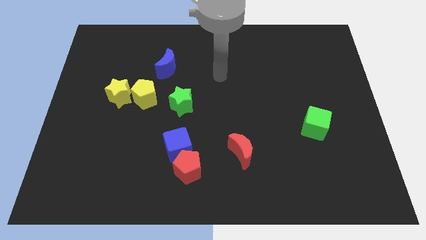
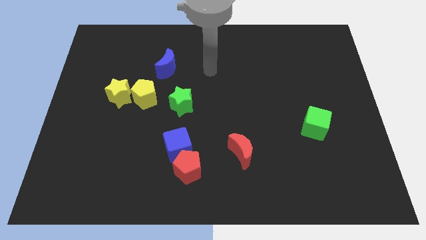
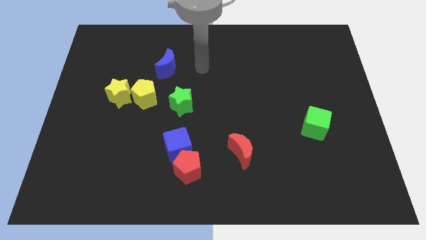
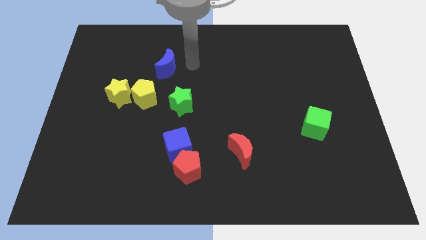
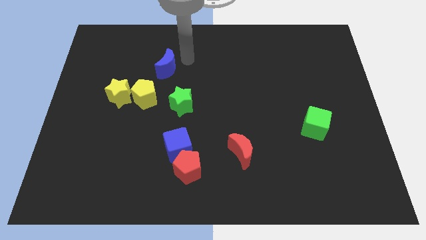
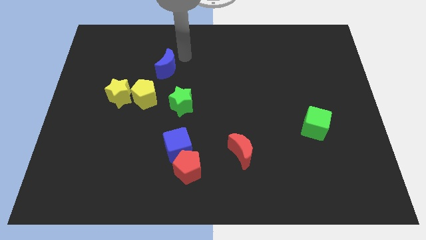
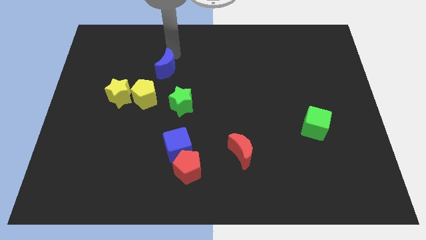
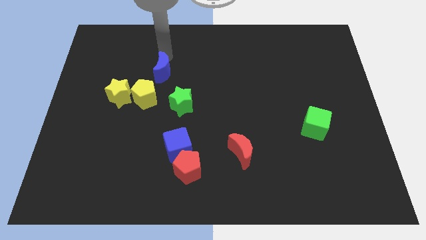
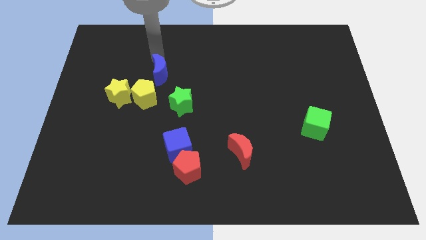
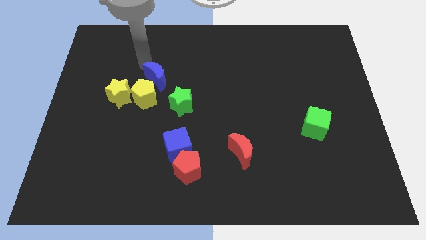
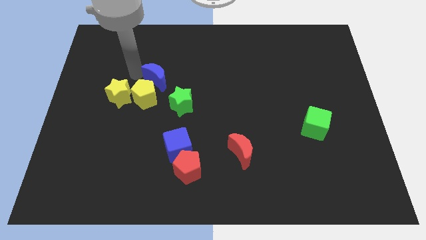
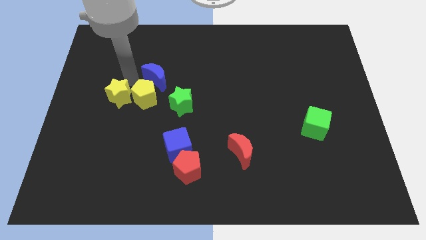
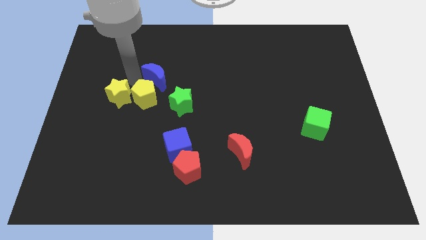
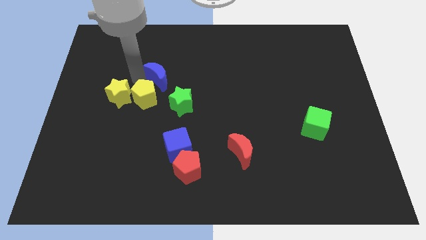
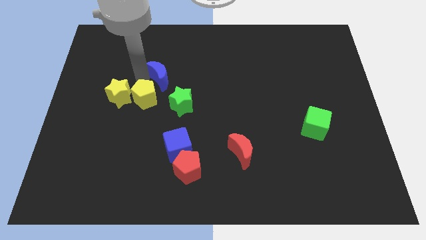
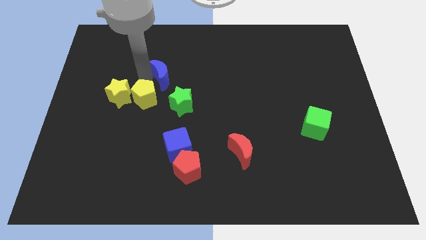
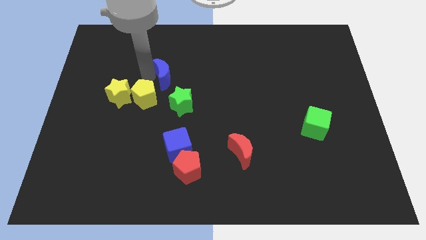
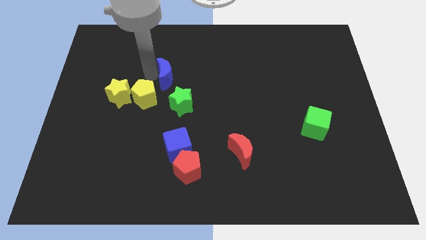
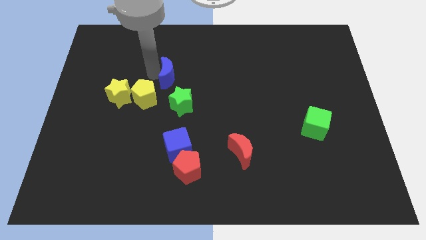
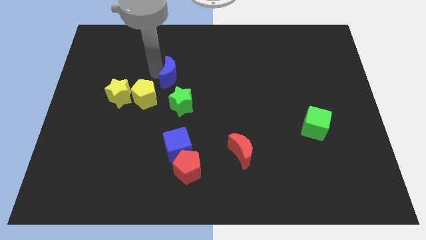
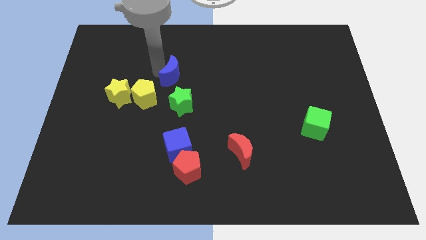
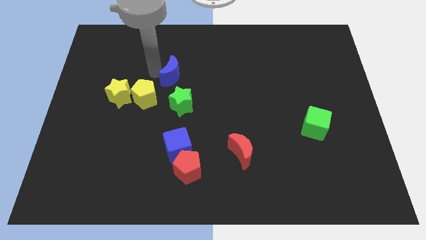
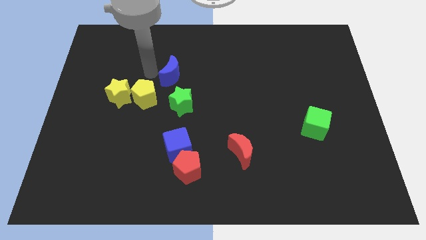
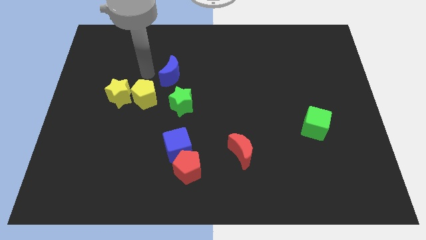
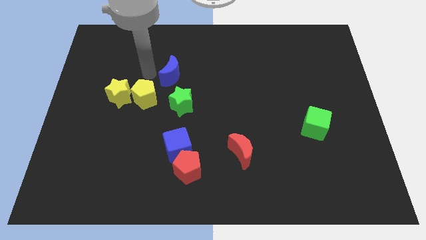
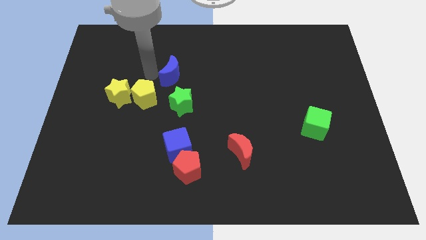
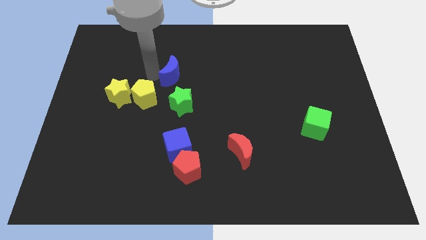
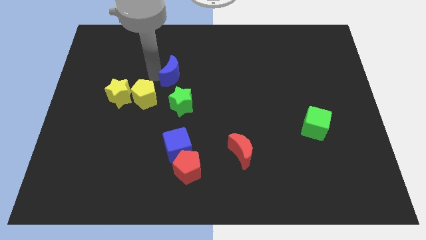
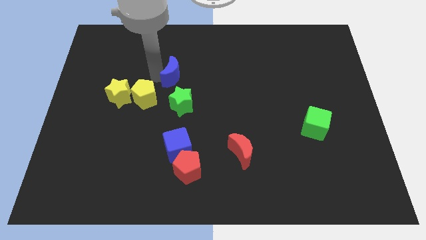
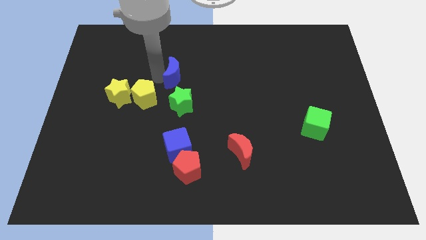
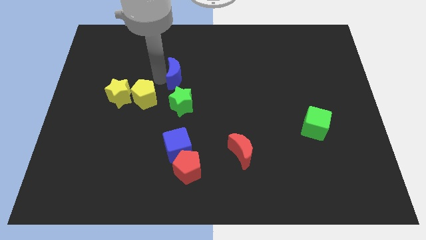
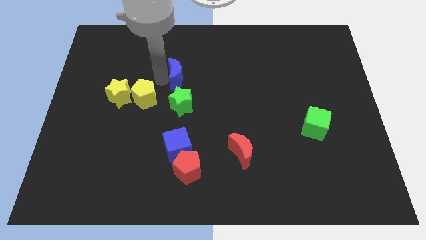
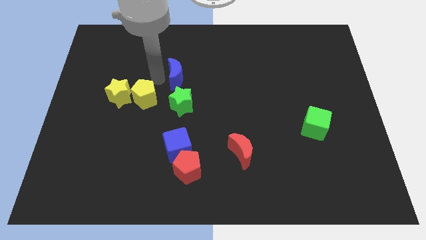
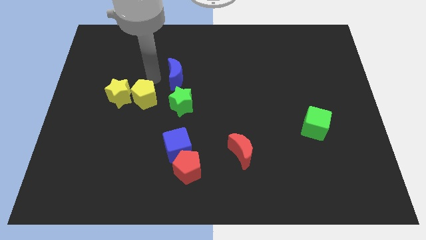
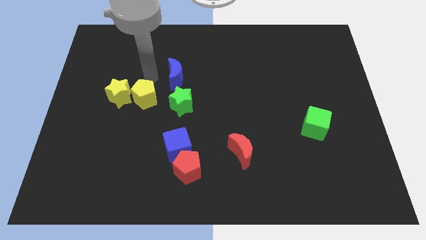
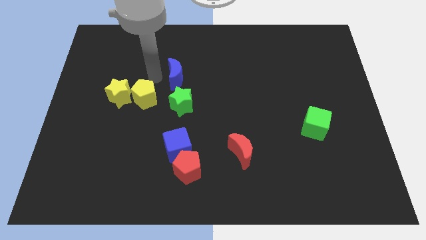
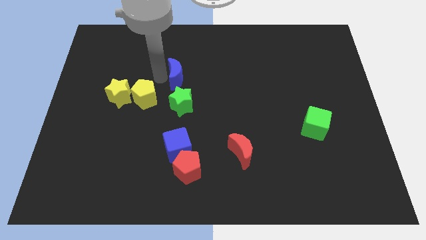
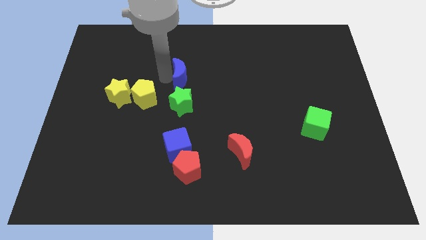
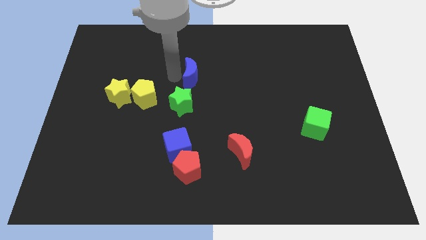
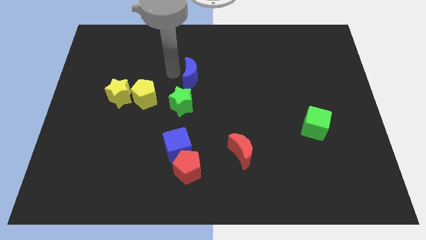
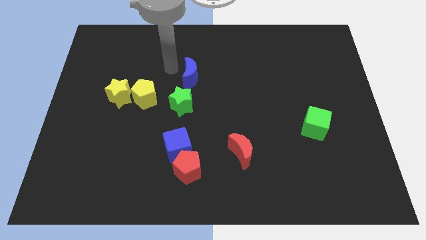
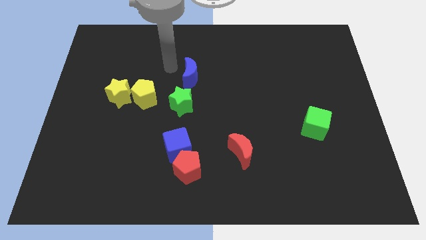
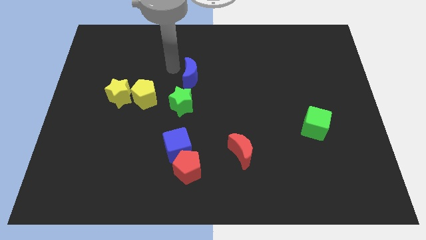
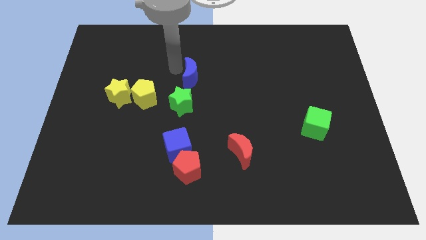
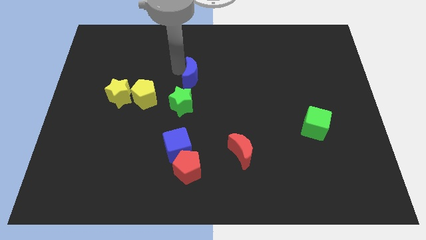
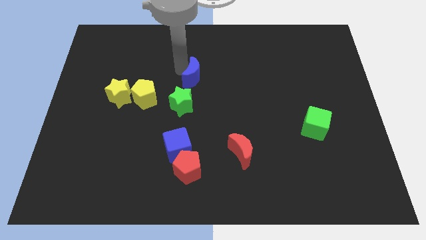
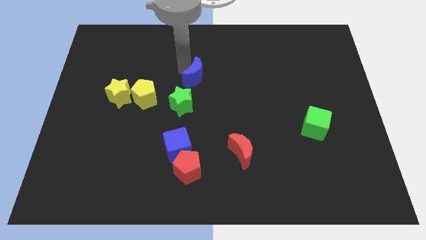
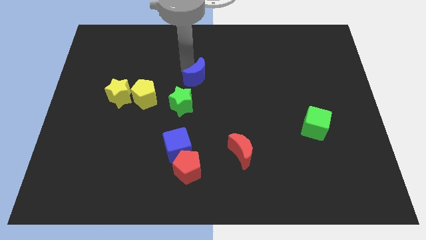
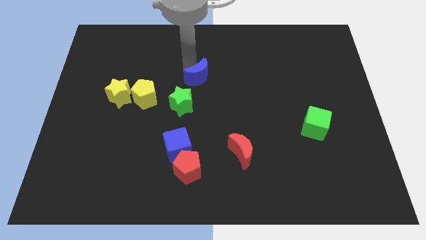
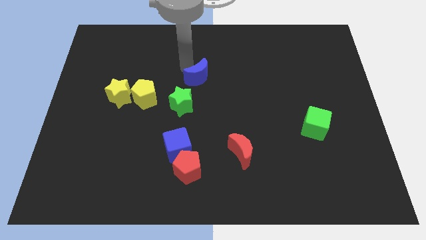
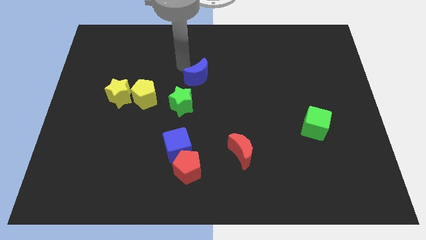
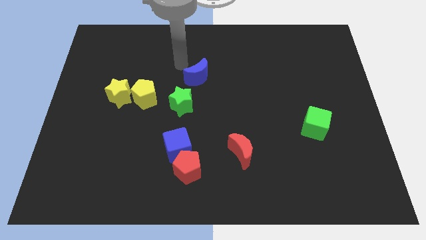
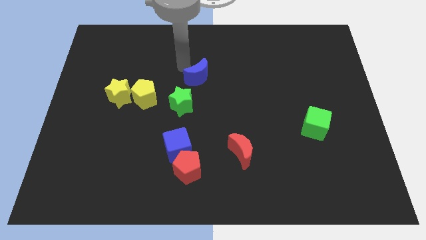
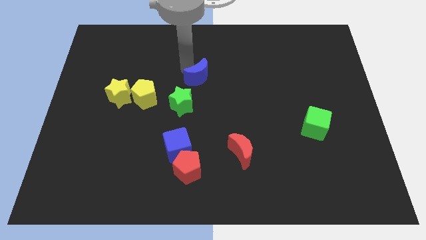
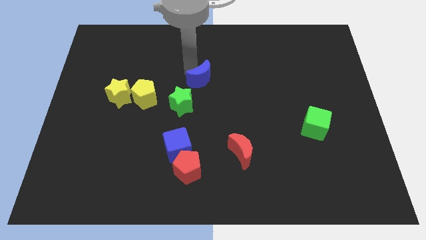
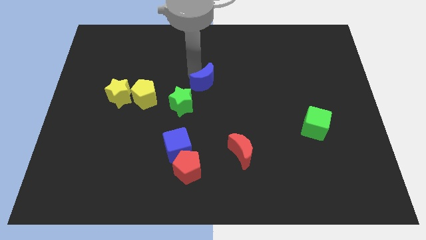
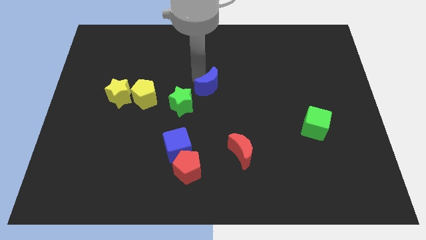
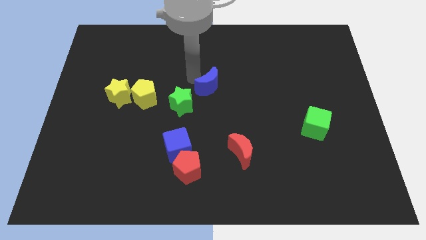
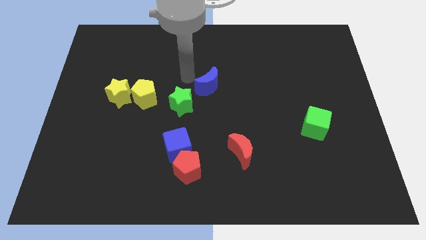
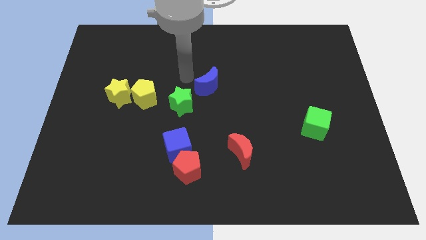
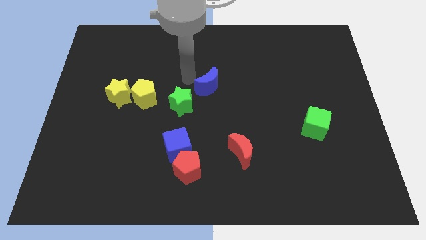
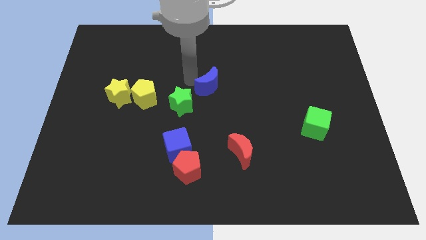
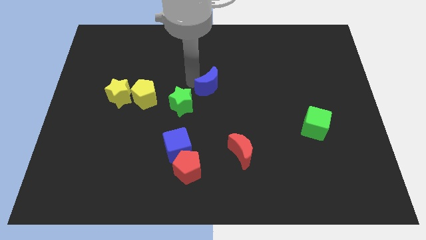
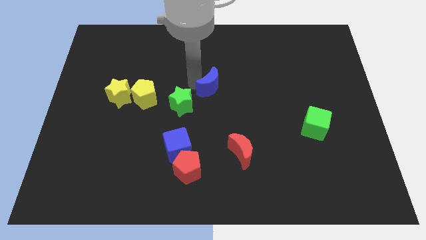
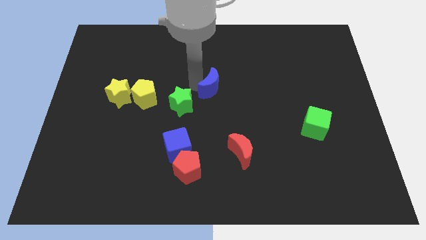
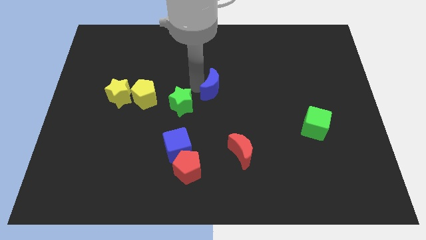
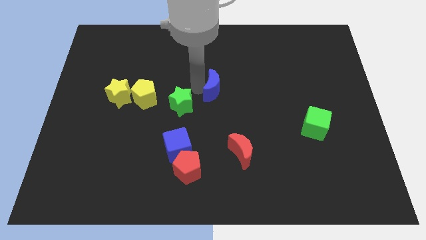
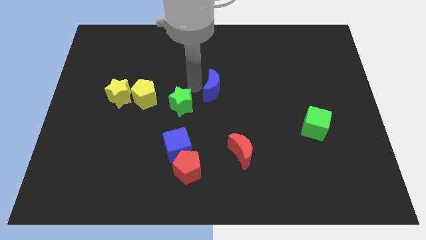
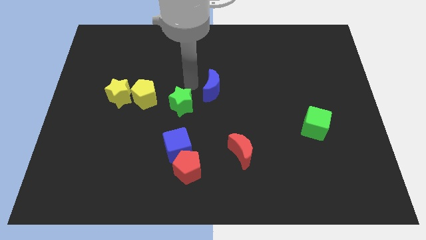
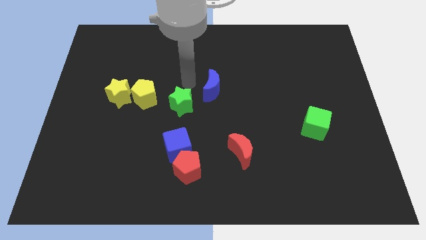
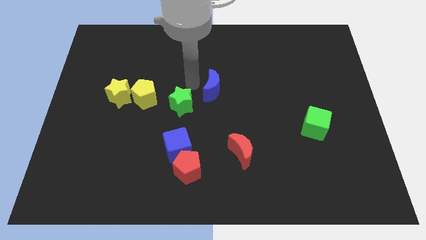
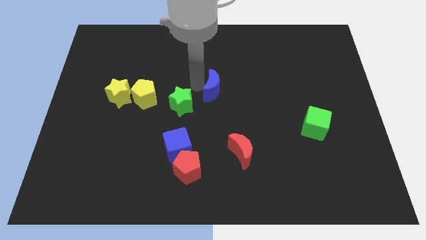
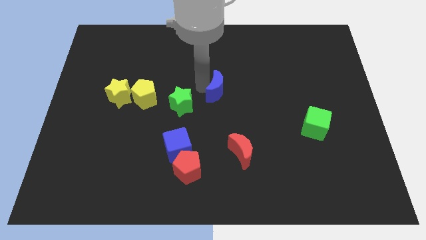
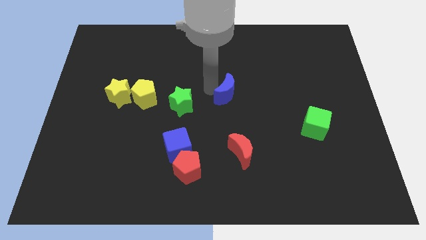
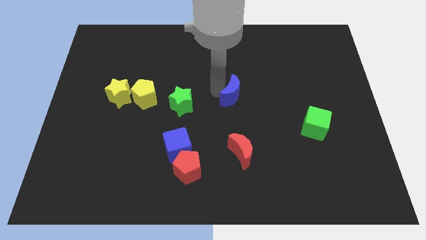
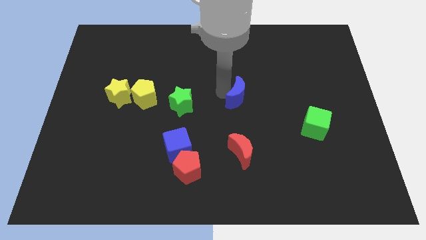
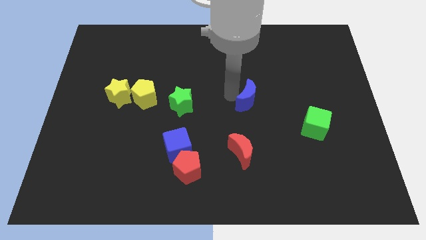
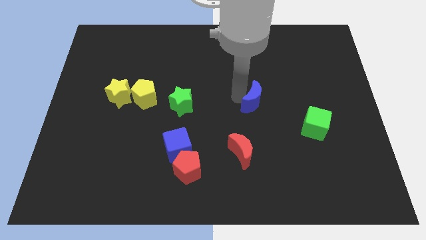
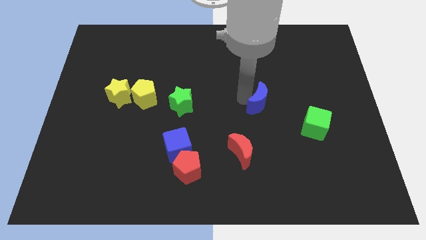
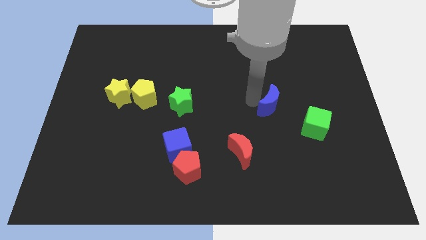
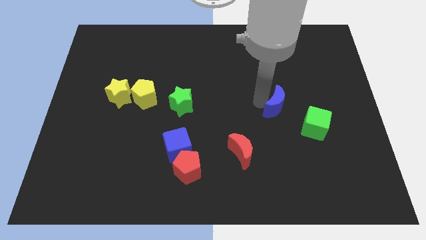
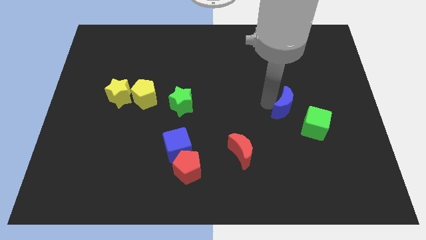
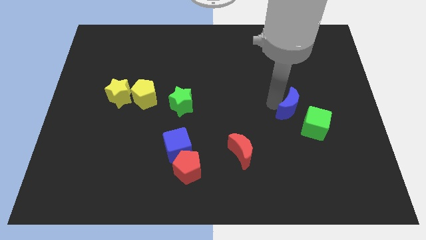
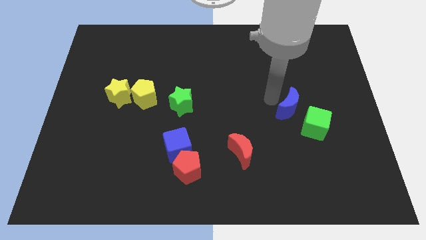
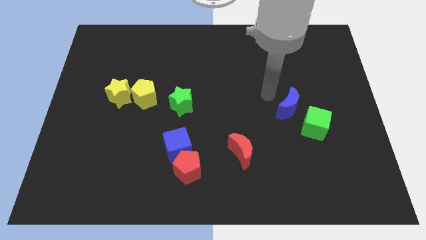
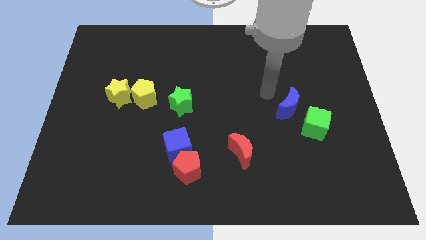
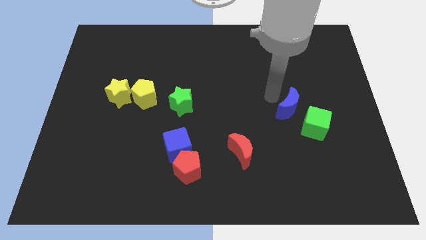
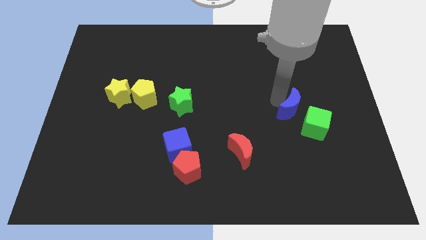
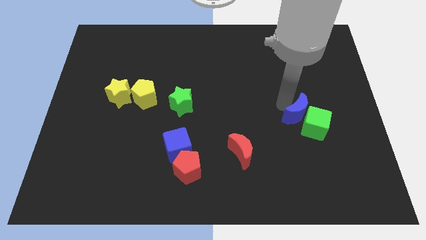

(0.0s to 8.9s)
push the blue moon towards the green cube
